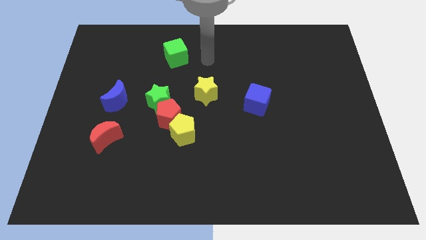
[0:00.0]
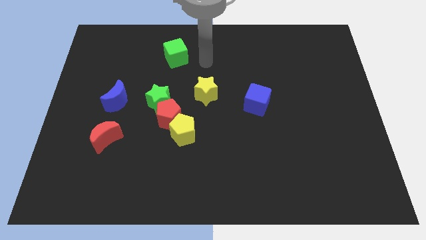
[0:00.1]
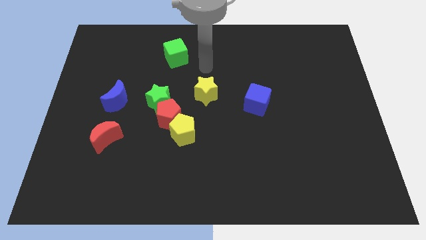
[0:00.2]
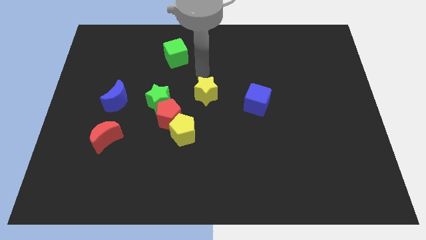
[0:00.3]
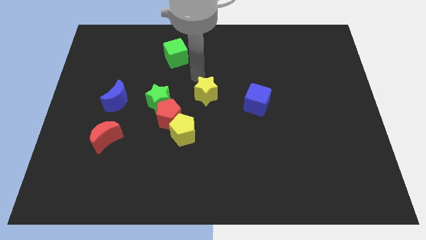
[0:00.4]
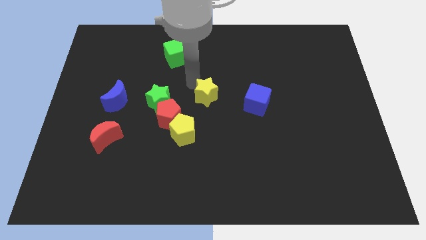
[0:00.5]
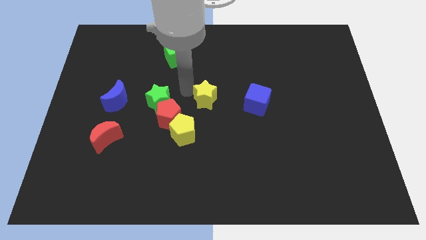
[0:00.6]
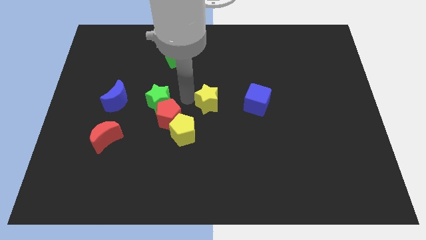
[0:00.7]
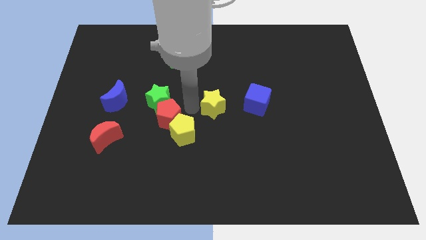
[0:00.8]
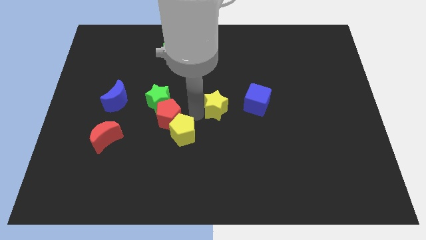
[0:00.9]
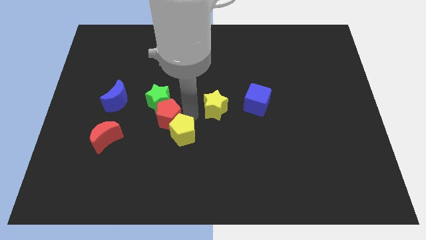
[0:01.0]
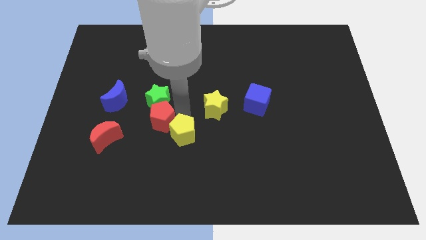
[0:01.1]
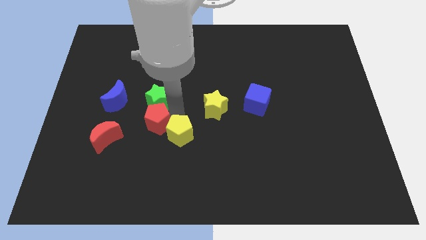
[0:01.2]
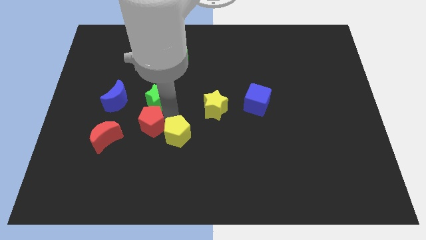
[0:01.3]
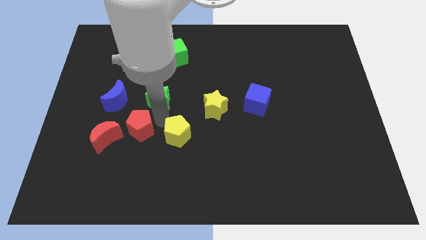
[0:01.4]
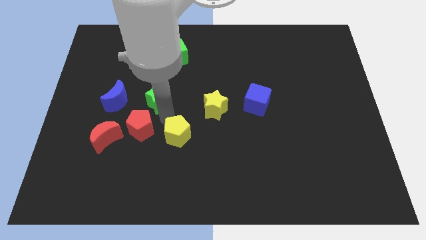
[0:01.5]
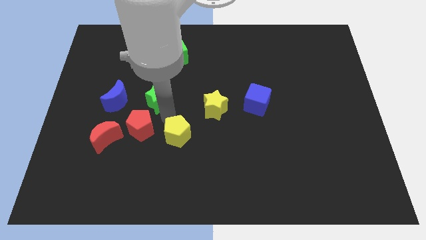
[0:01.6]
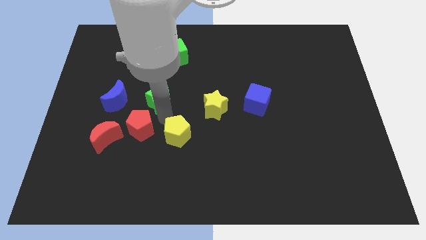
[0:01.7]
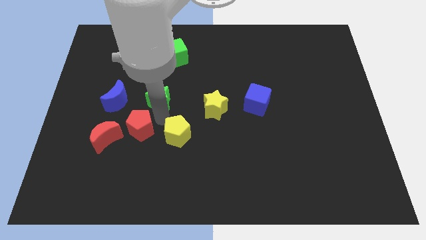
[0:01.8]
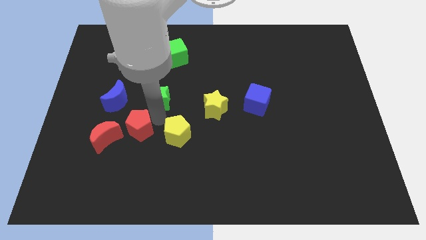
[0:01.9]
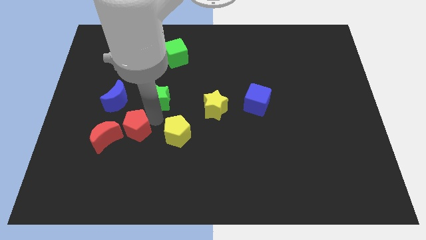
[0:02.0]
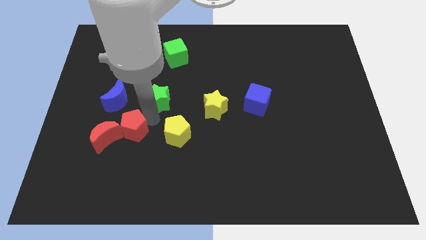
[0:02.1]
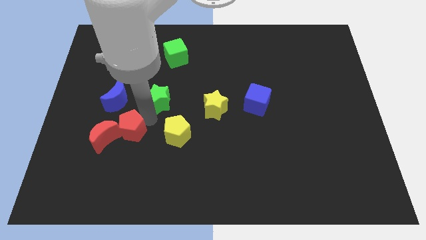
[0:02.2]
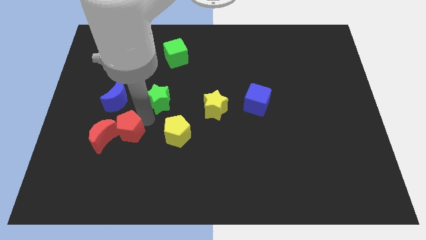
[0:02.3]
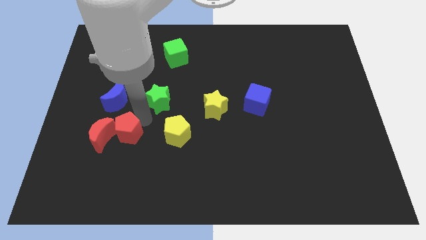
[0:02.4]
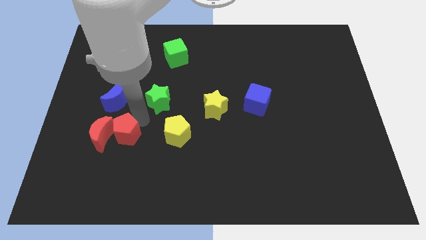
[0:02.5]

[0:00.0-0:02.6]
separate the red pentagon from the green star and yellow pentagon

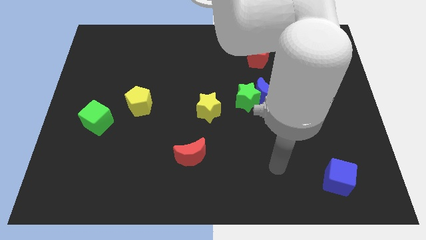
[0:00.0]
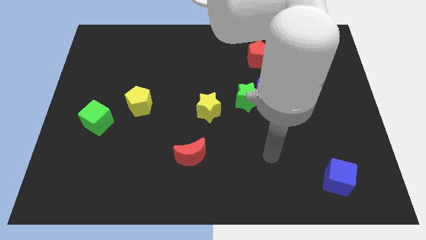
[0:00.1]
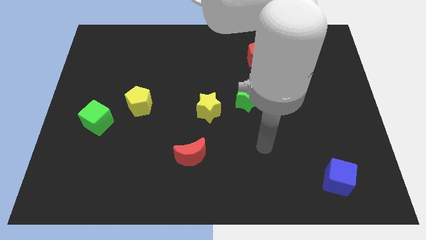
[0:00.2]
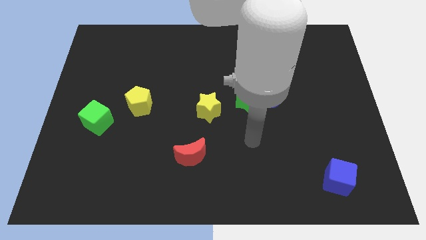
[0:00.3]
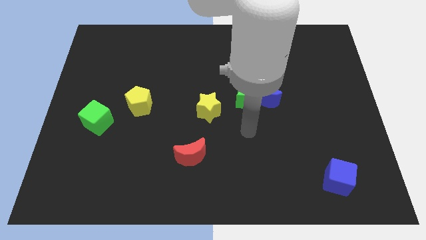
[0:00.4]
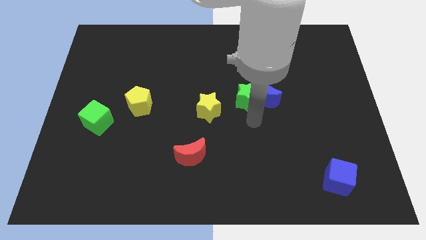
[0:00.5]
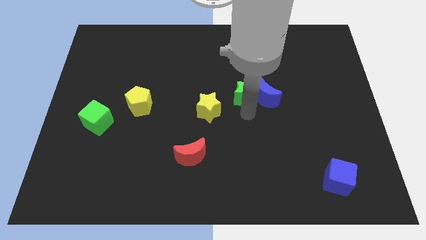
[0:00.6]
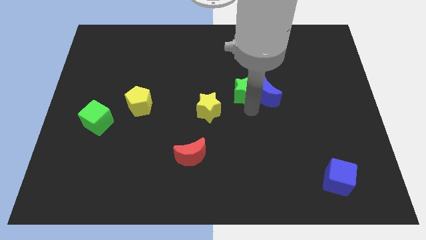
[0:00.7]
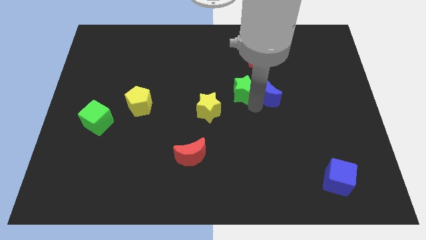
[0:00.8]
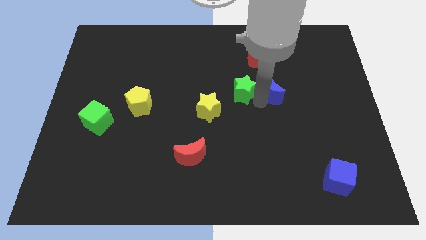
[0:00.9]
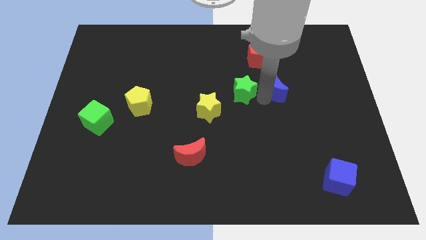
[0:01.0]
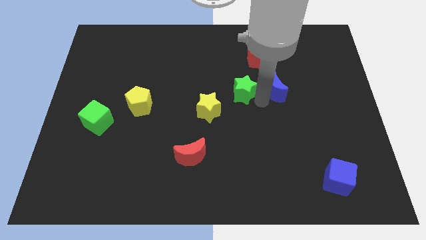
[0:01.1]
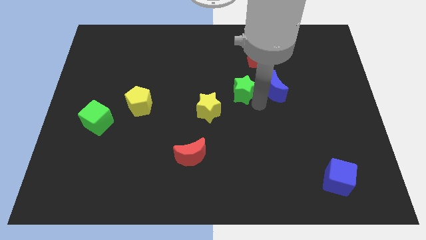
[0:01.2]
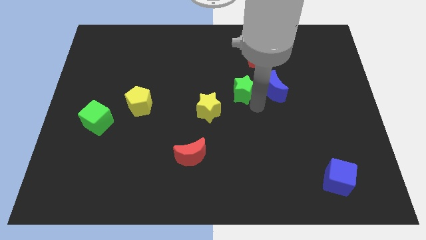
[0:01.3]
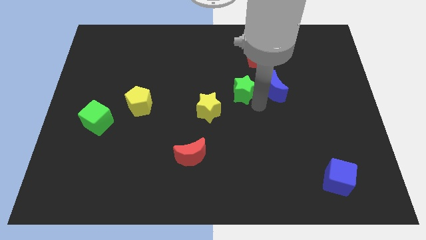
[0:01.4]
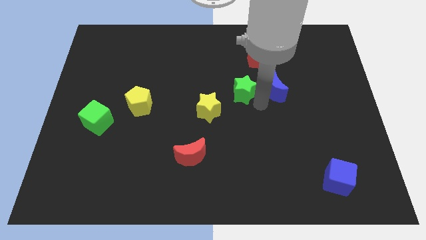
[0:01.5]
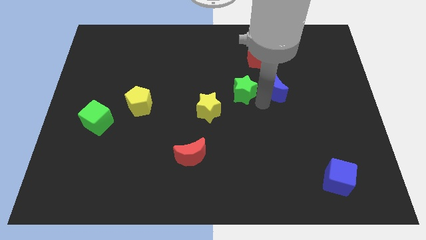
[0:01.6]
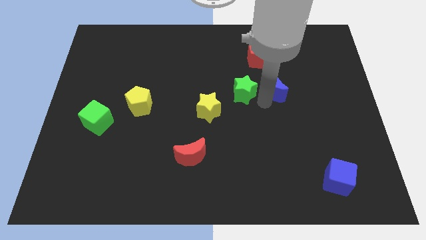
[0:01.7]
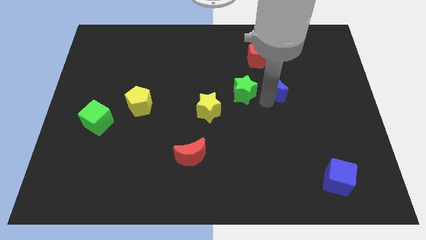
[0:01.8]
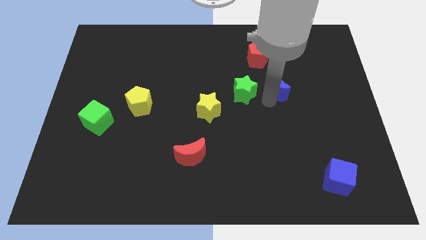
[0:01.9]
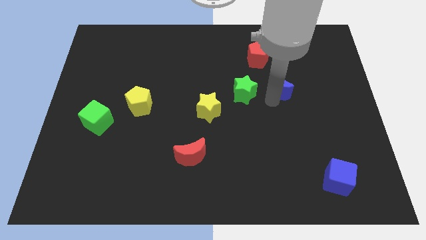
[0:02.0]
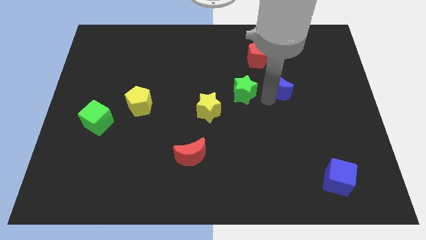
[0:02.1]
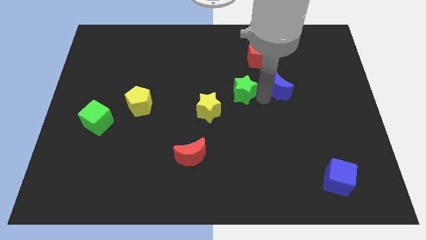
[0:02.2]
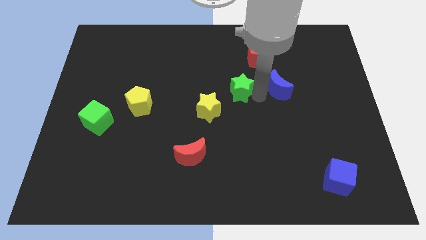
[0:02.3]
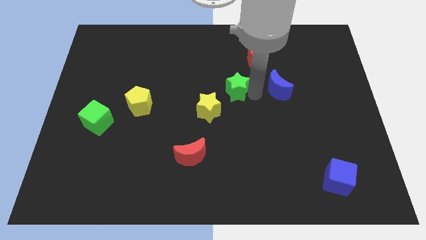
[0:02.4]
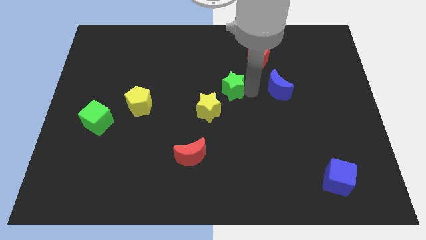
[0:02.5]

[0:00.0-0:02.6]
pull the blue moon apart from the green star

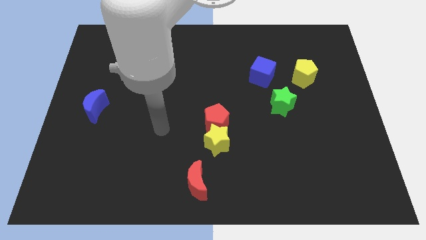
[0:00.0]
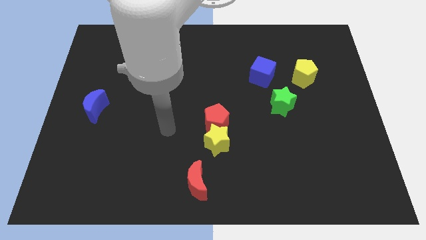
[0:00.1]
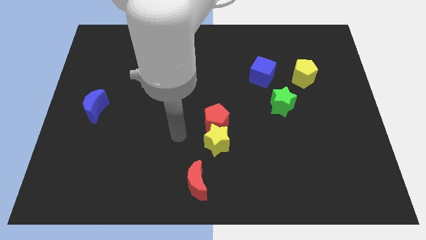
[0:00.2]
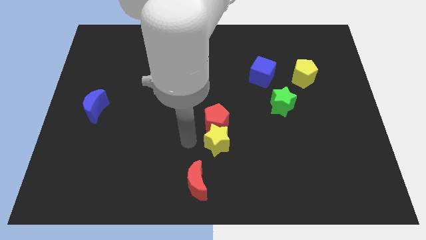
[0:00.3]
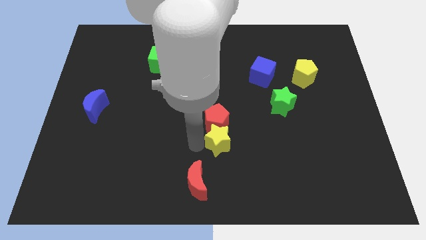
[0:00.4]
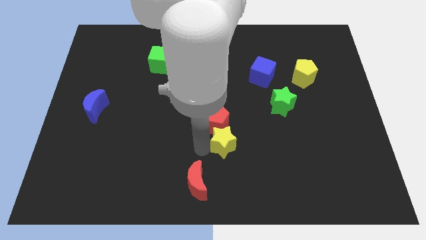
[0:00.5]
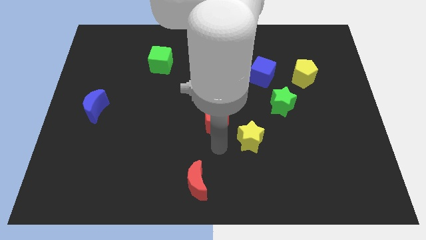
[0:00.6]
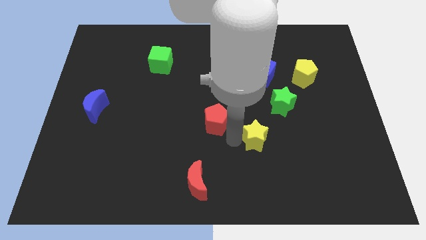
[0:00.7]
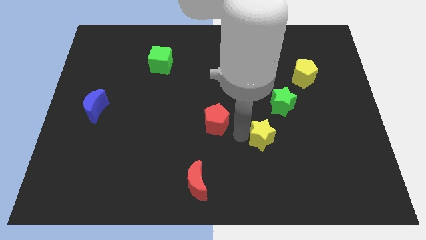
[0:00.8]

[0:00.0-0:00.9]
separate the red pentagon from the yellow star

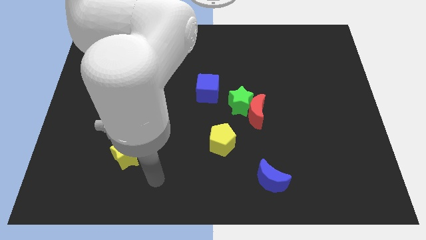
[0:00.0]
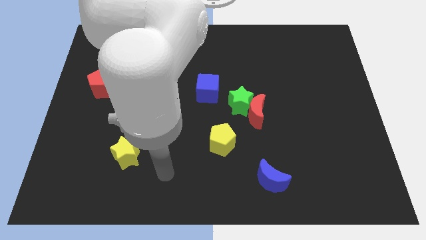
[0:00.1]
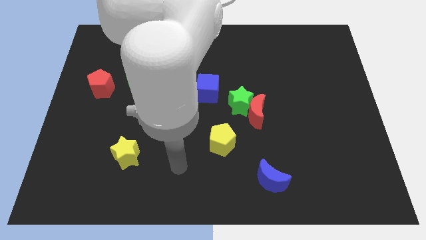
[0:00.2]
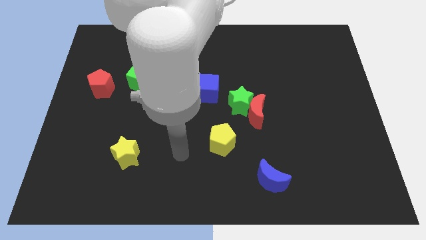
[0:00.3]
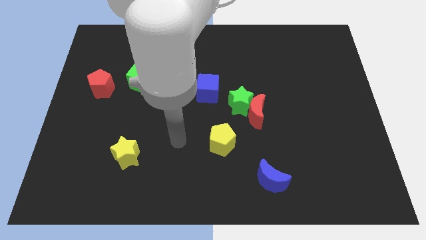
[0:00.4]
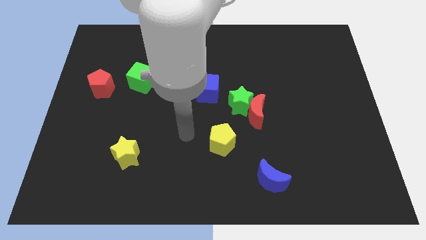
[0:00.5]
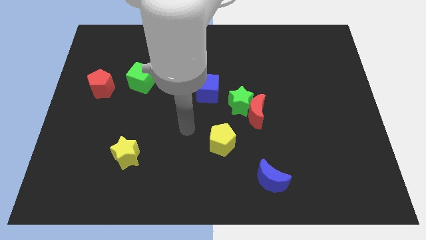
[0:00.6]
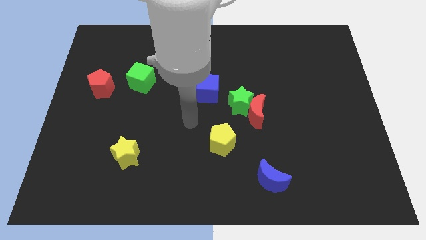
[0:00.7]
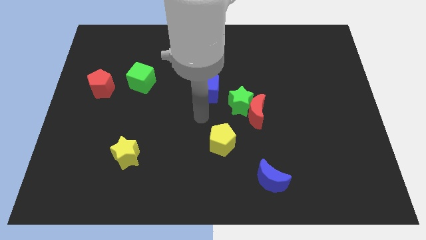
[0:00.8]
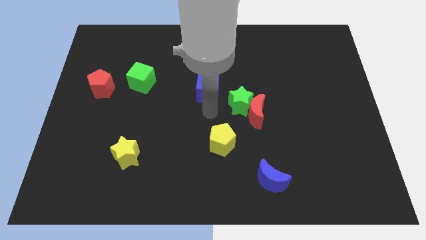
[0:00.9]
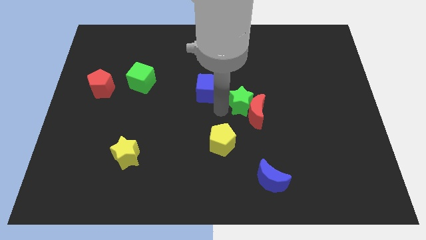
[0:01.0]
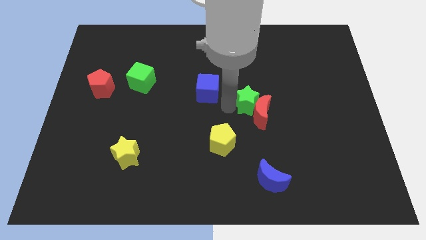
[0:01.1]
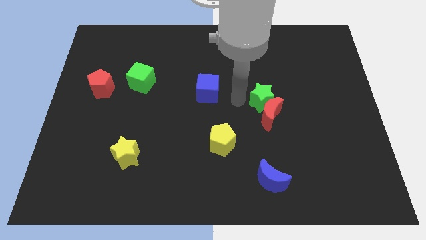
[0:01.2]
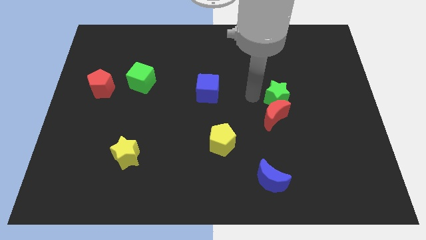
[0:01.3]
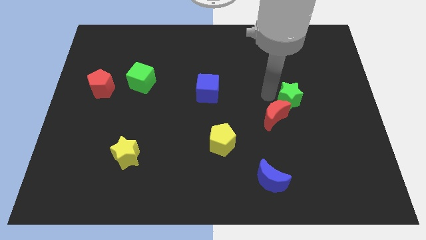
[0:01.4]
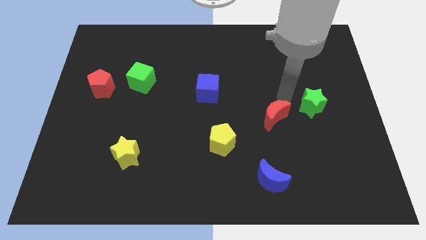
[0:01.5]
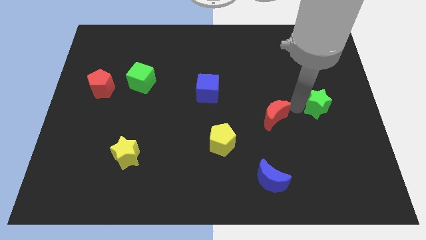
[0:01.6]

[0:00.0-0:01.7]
move the red moon away from the green star

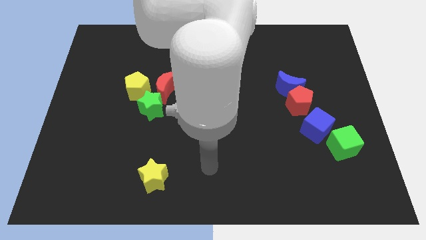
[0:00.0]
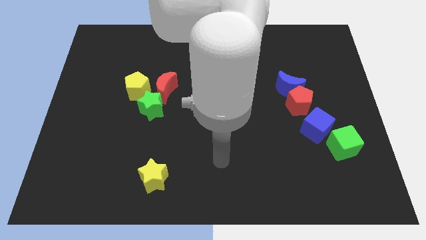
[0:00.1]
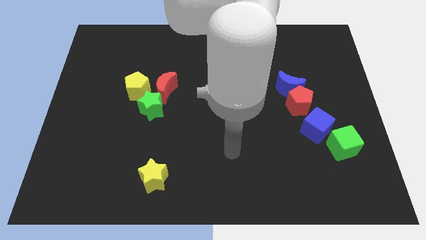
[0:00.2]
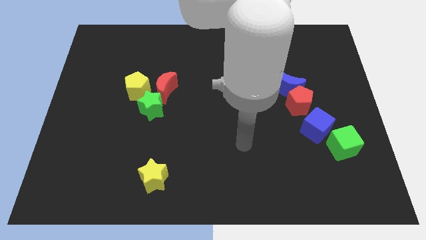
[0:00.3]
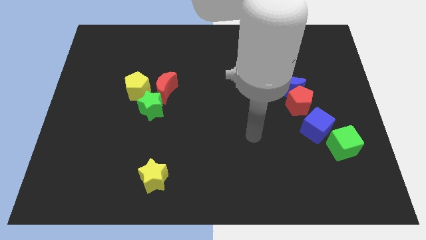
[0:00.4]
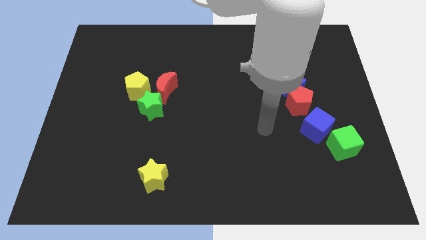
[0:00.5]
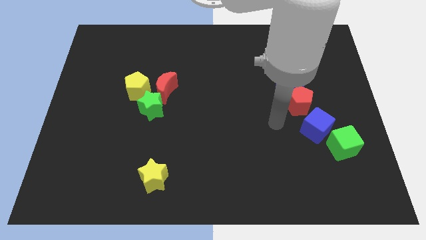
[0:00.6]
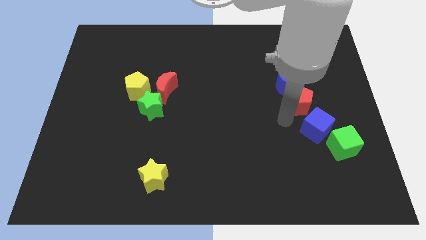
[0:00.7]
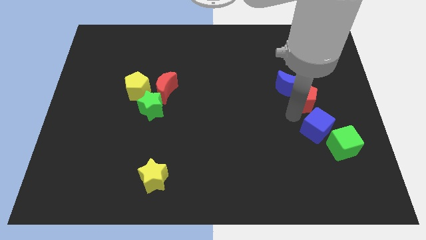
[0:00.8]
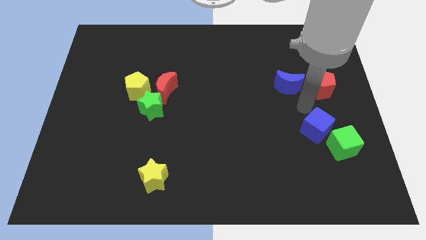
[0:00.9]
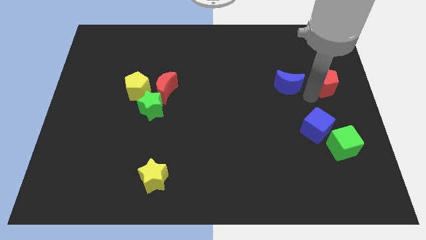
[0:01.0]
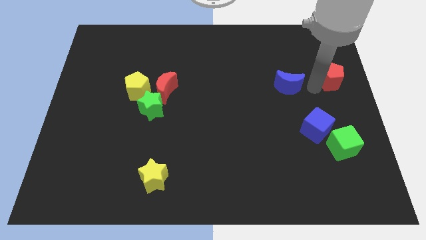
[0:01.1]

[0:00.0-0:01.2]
move the blue moon away from the red pentagon

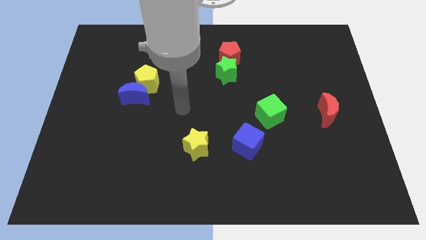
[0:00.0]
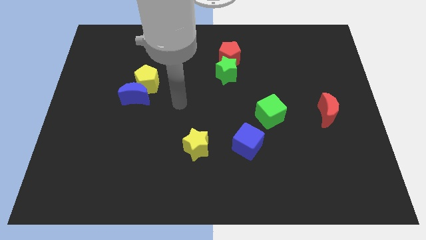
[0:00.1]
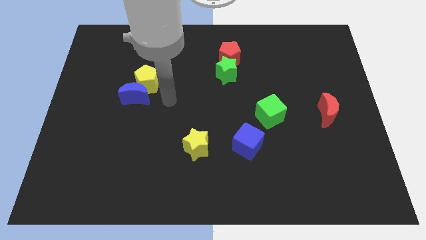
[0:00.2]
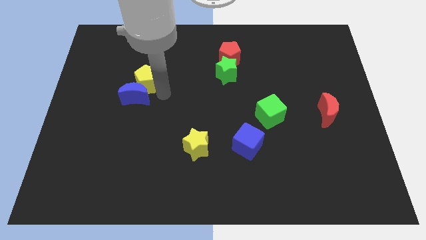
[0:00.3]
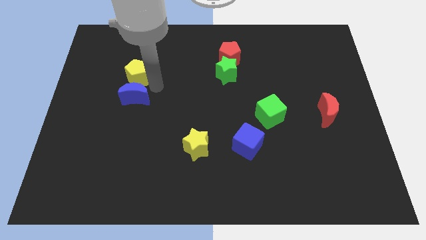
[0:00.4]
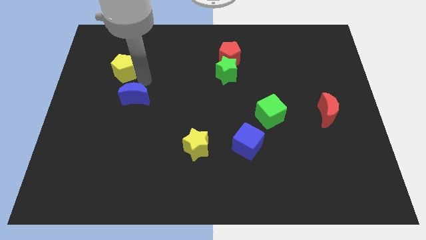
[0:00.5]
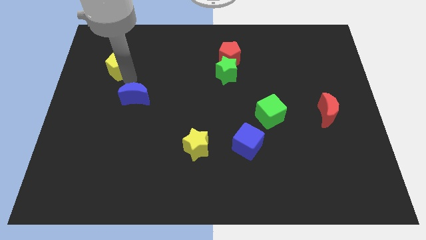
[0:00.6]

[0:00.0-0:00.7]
pull the blue moon apart from the yellow pentagon
